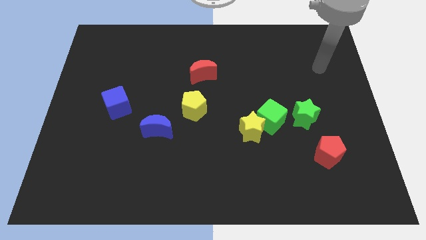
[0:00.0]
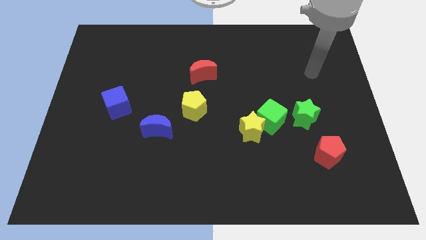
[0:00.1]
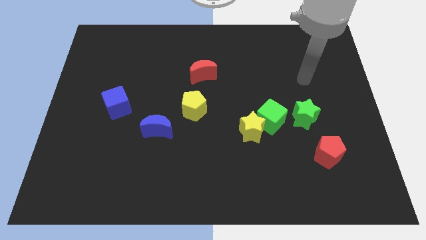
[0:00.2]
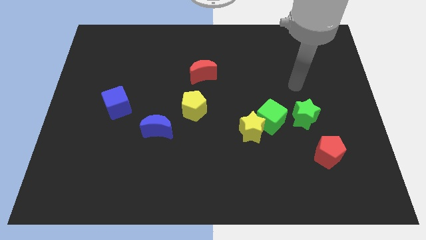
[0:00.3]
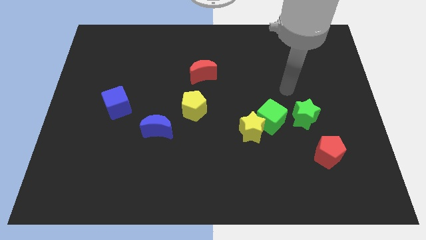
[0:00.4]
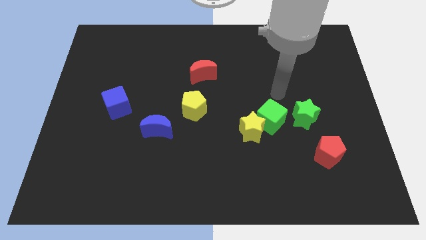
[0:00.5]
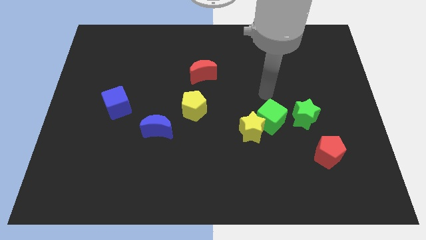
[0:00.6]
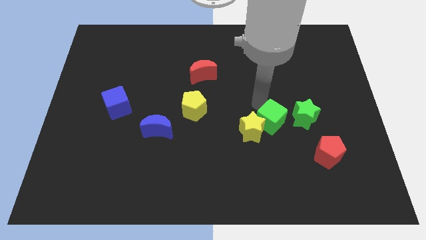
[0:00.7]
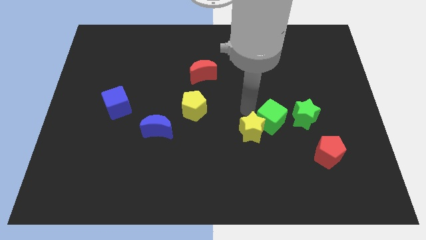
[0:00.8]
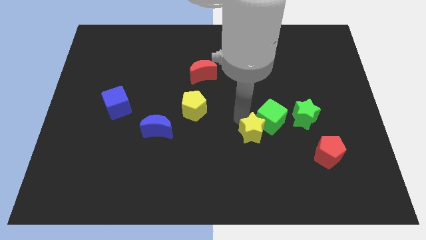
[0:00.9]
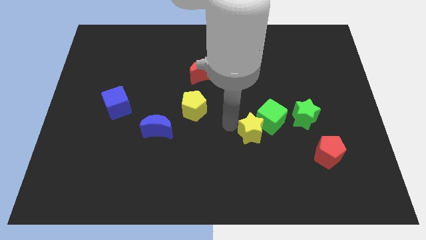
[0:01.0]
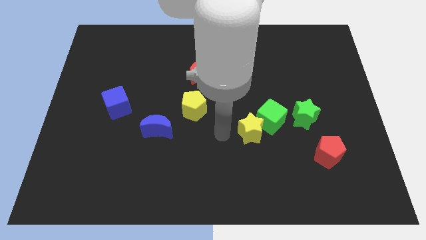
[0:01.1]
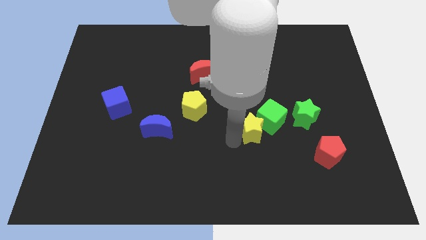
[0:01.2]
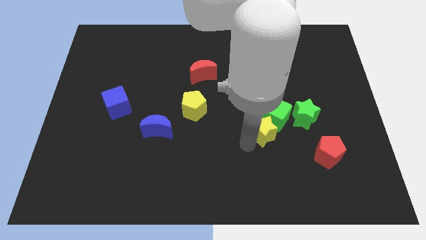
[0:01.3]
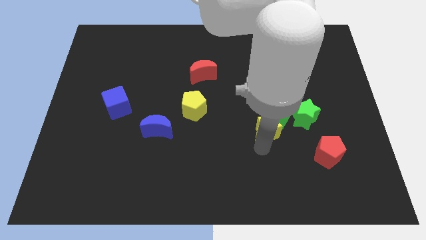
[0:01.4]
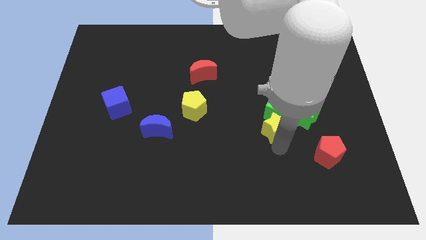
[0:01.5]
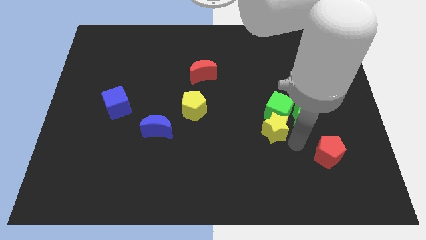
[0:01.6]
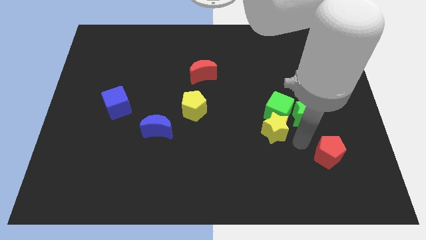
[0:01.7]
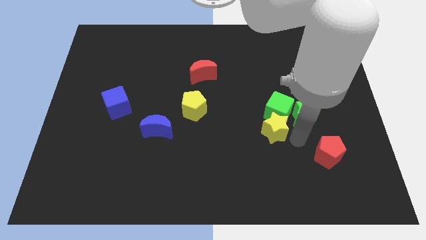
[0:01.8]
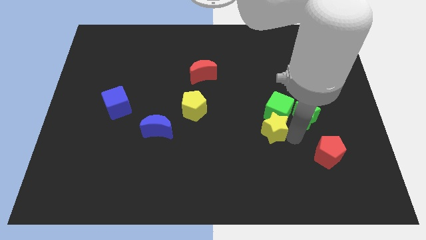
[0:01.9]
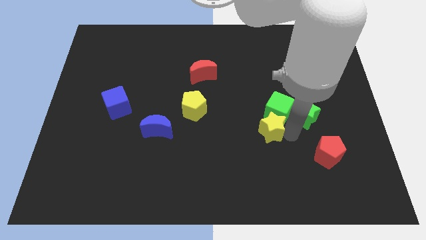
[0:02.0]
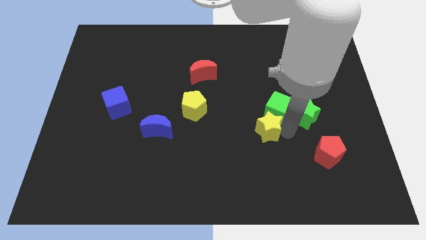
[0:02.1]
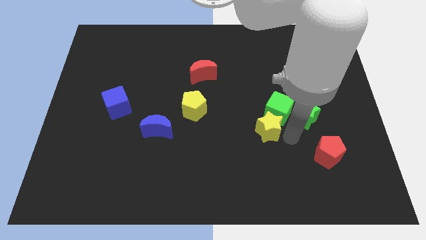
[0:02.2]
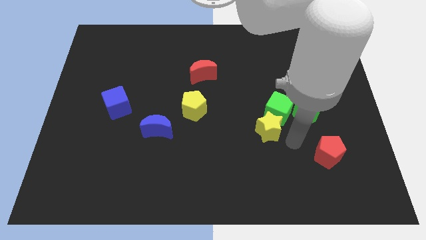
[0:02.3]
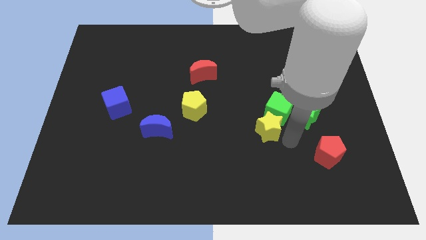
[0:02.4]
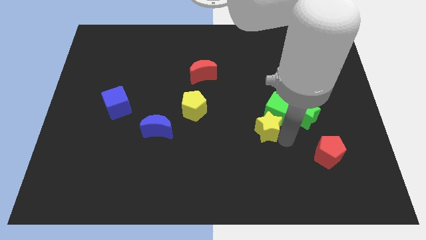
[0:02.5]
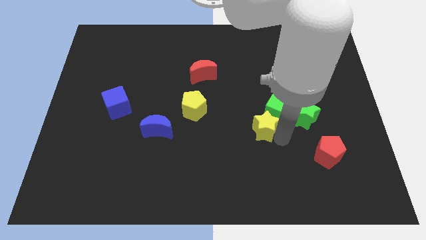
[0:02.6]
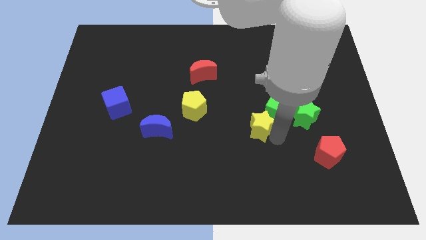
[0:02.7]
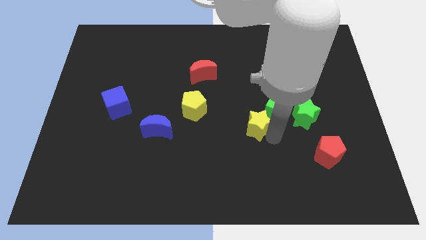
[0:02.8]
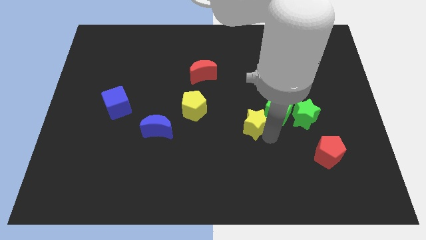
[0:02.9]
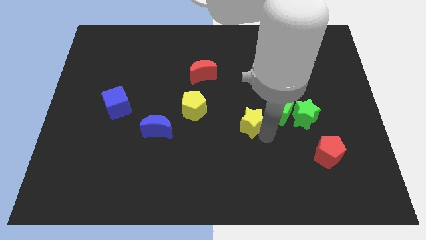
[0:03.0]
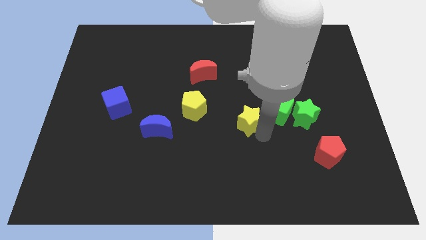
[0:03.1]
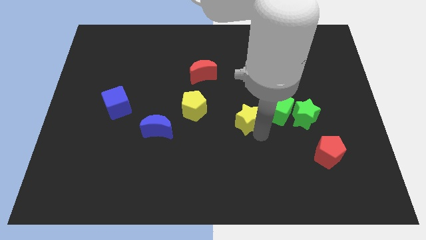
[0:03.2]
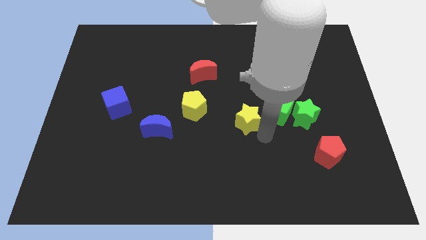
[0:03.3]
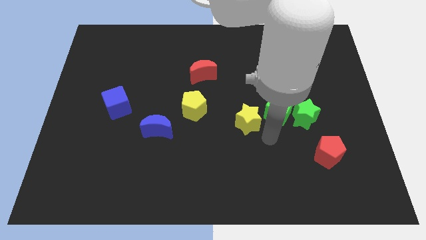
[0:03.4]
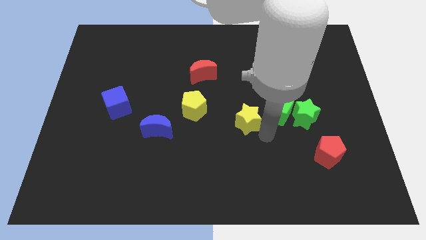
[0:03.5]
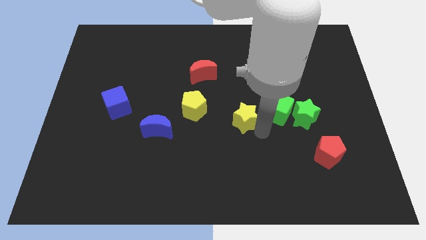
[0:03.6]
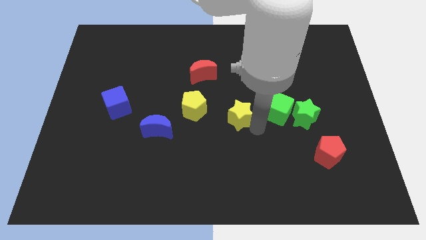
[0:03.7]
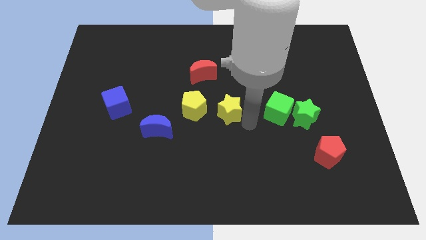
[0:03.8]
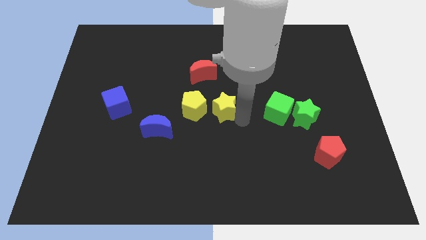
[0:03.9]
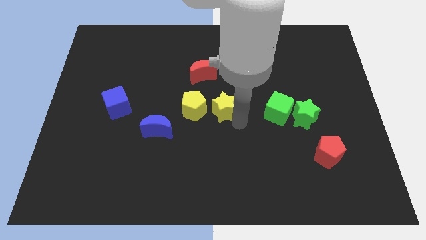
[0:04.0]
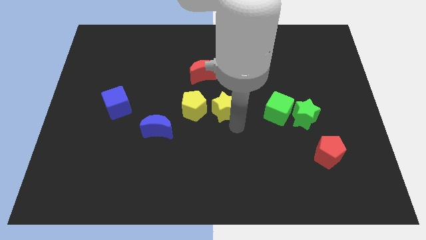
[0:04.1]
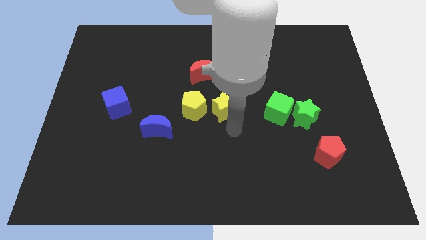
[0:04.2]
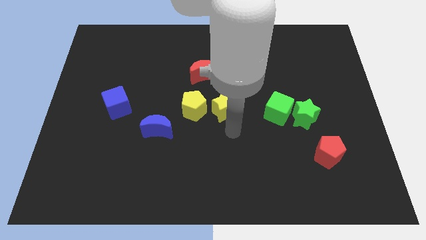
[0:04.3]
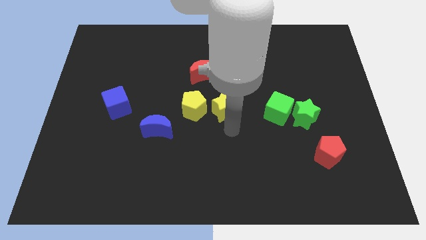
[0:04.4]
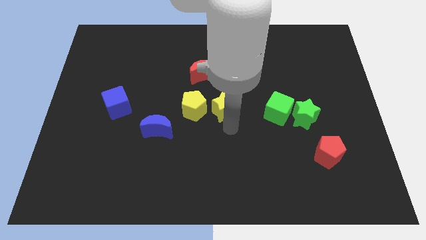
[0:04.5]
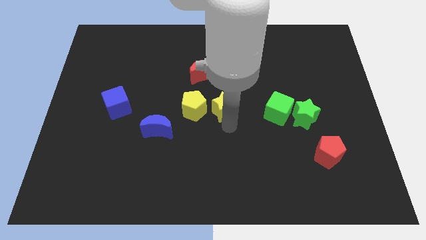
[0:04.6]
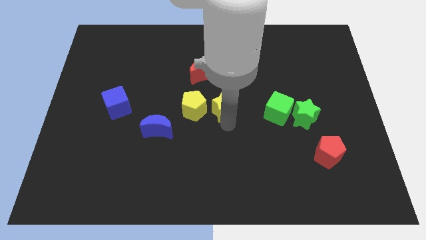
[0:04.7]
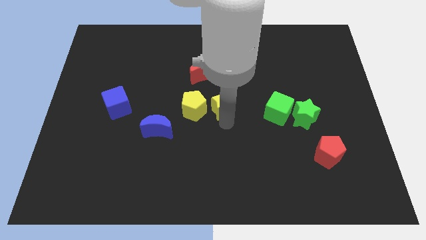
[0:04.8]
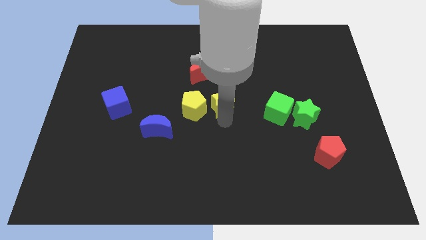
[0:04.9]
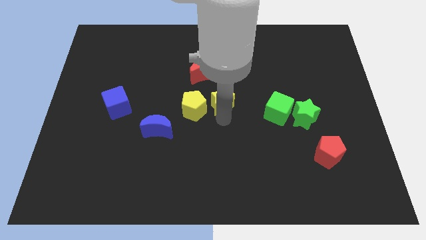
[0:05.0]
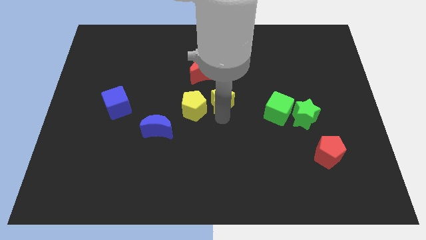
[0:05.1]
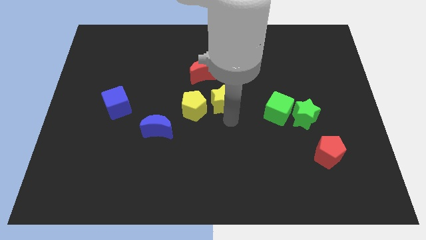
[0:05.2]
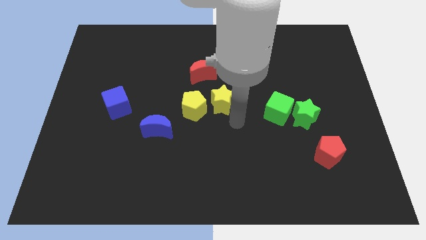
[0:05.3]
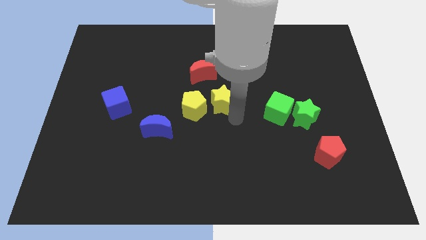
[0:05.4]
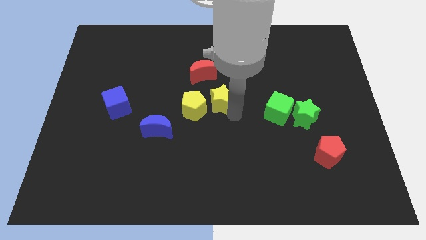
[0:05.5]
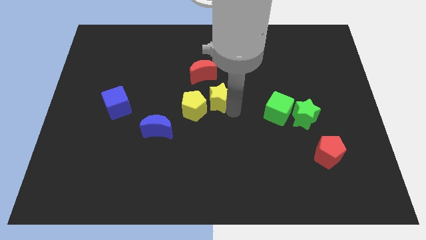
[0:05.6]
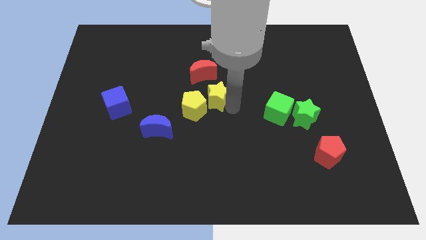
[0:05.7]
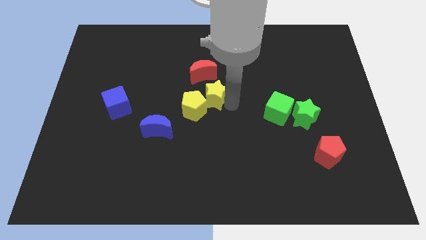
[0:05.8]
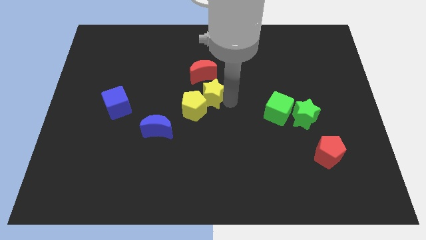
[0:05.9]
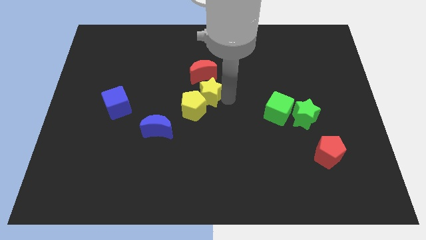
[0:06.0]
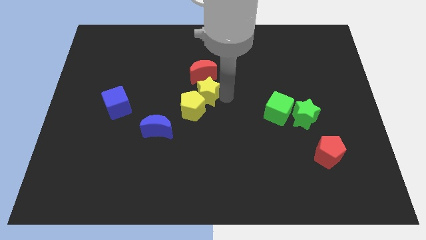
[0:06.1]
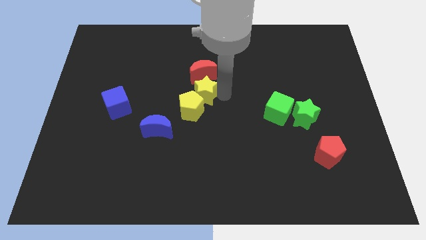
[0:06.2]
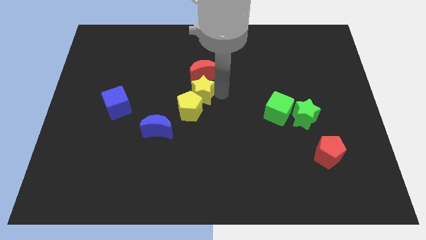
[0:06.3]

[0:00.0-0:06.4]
put the yellow star towards the red moon
